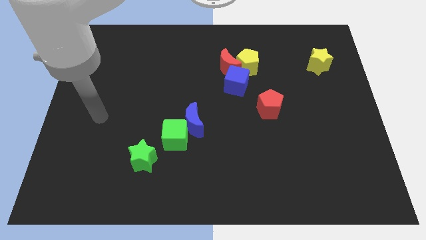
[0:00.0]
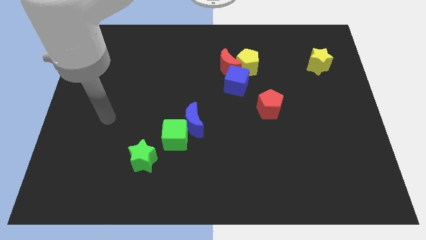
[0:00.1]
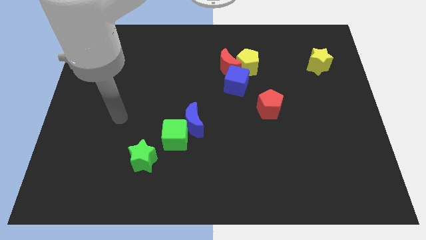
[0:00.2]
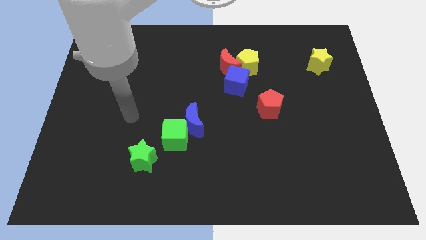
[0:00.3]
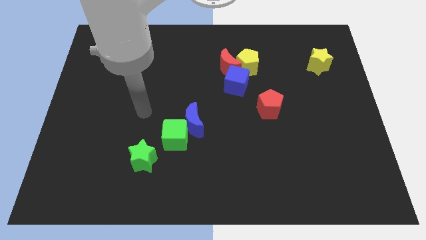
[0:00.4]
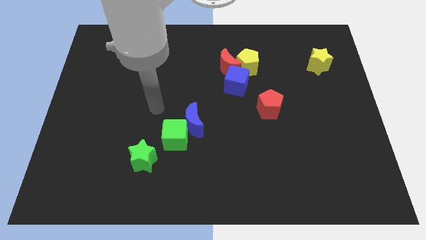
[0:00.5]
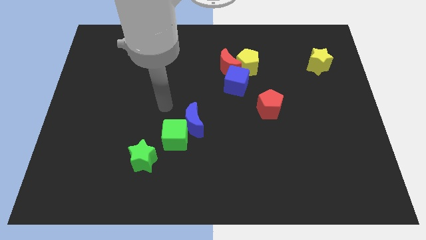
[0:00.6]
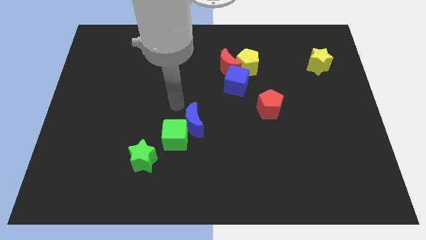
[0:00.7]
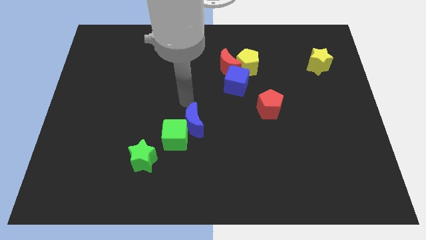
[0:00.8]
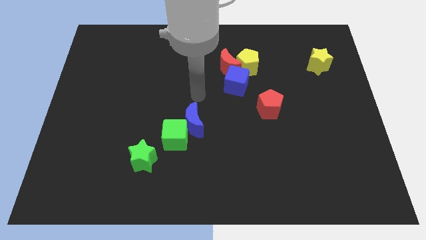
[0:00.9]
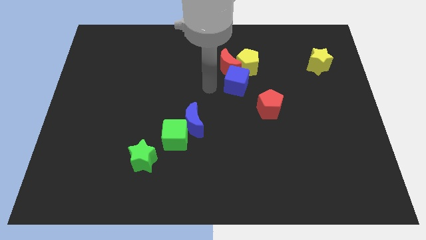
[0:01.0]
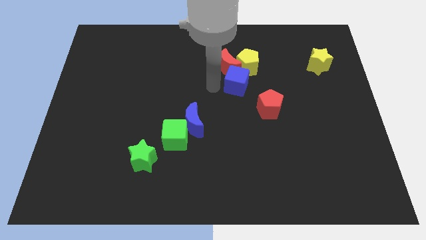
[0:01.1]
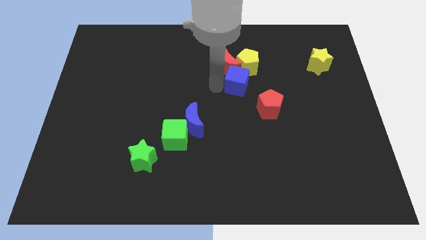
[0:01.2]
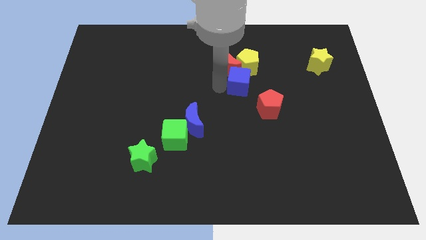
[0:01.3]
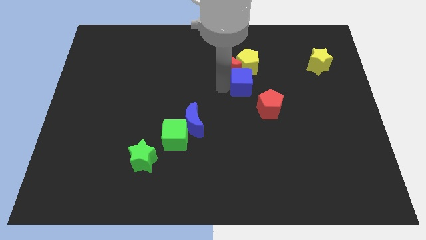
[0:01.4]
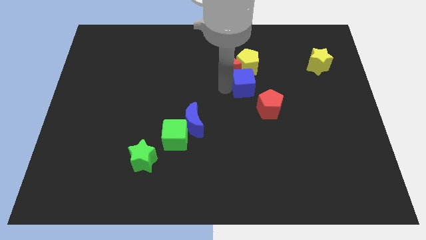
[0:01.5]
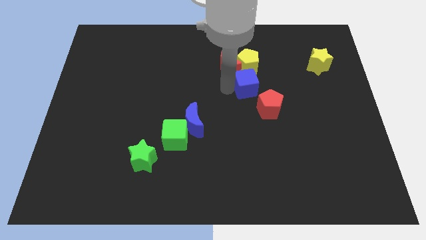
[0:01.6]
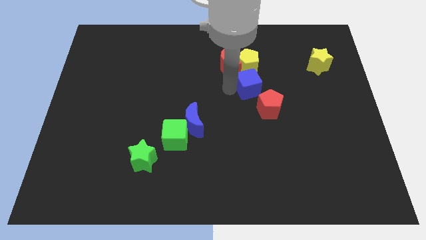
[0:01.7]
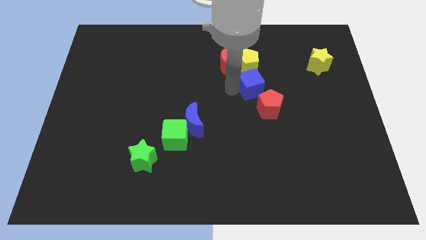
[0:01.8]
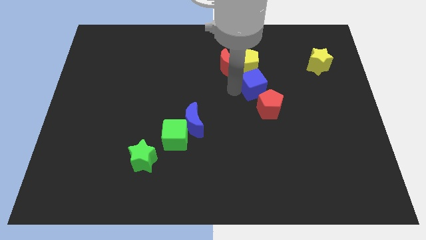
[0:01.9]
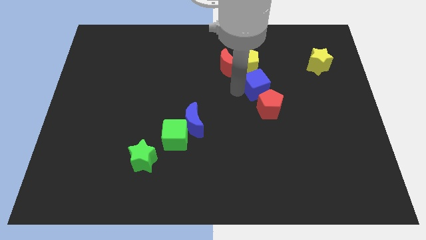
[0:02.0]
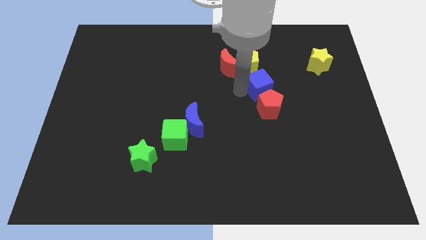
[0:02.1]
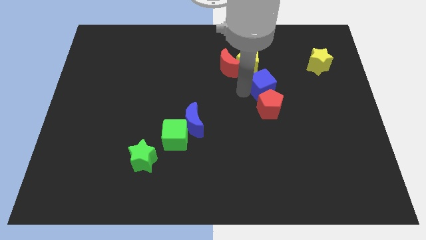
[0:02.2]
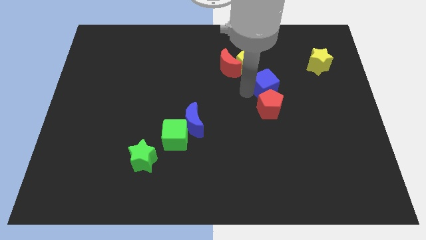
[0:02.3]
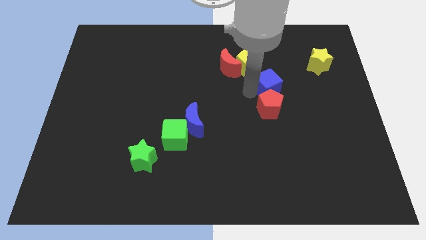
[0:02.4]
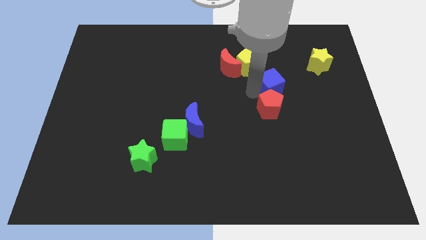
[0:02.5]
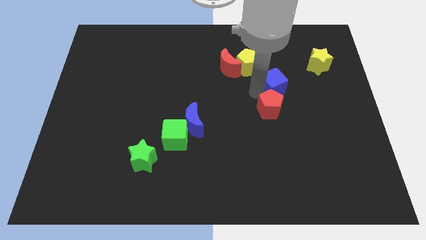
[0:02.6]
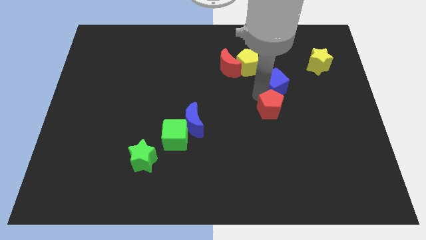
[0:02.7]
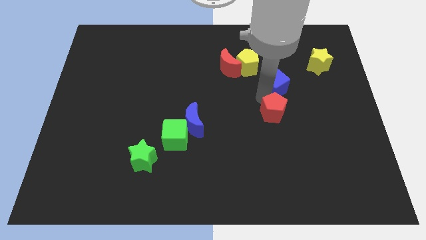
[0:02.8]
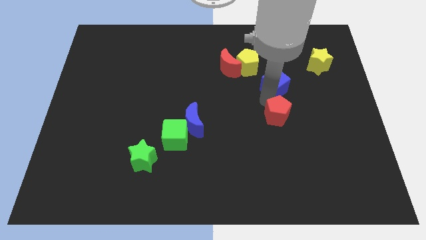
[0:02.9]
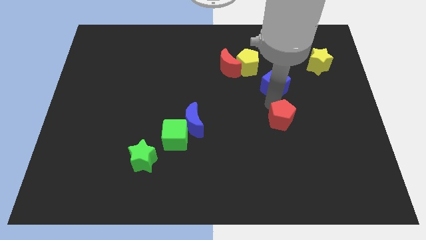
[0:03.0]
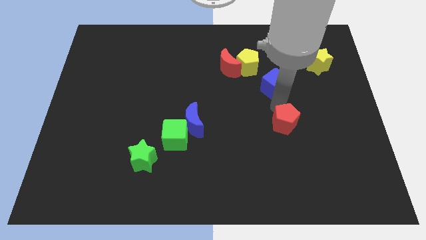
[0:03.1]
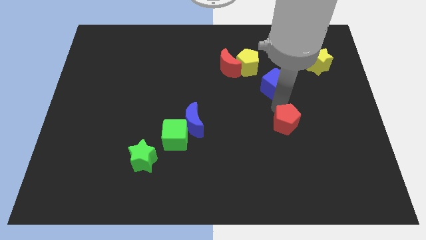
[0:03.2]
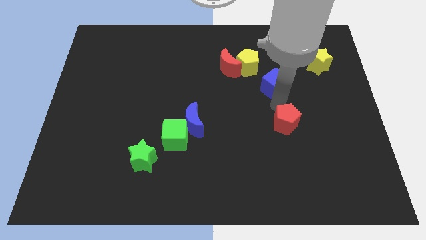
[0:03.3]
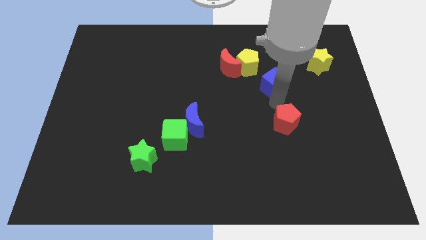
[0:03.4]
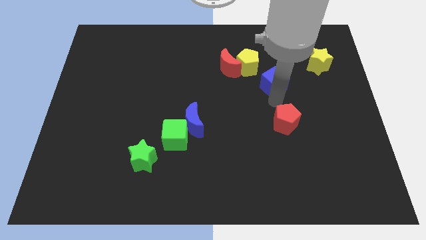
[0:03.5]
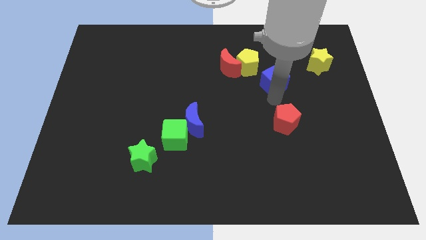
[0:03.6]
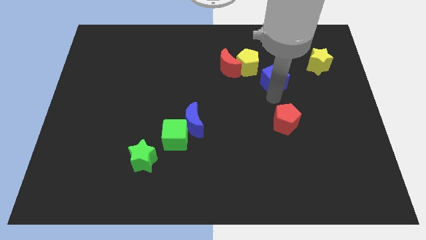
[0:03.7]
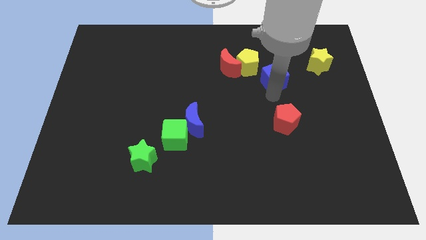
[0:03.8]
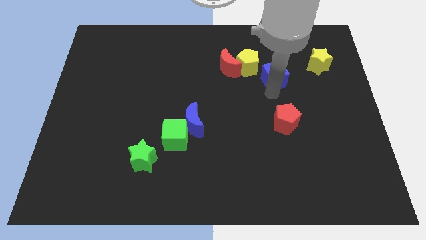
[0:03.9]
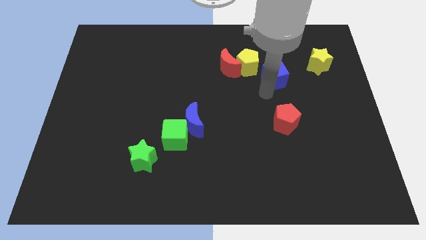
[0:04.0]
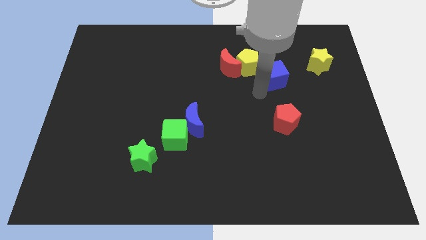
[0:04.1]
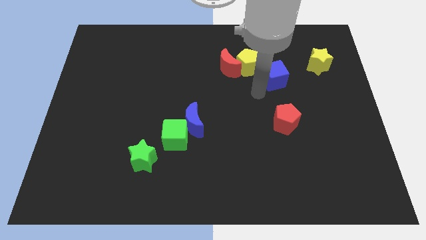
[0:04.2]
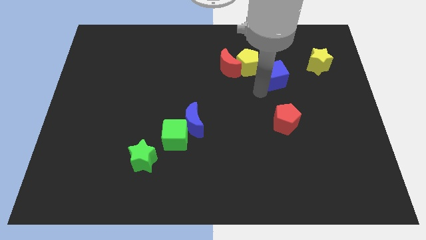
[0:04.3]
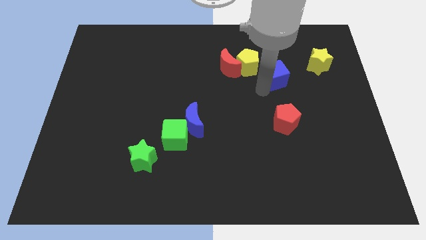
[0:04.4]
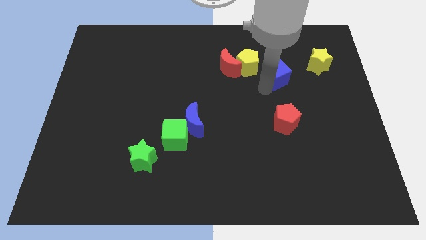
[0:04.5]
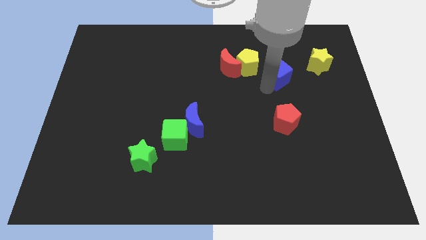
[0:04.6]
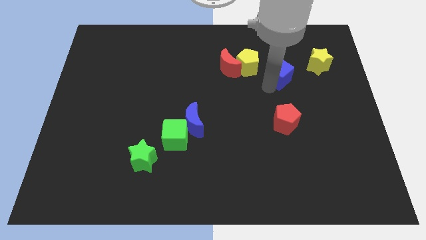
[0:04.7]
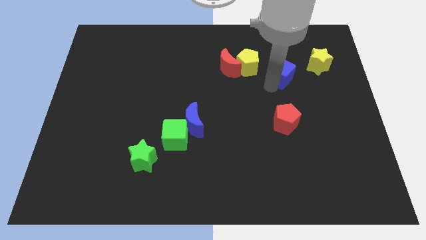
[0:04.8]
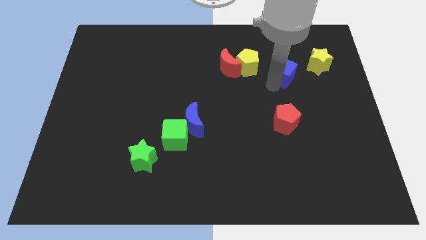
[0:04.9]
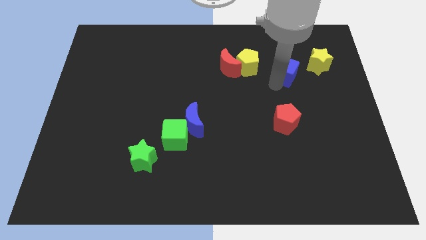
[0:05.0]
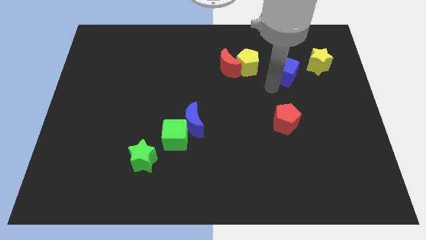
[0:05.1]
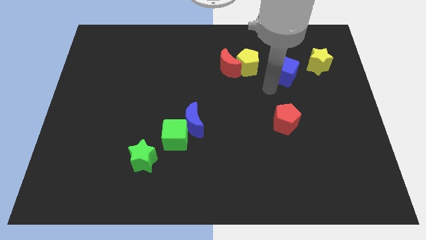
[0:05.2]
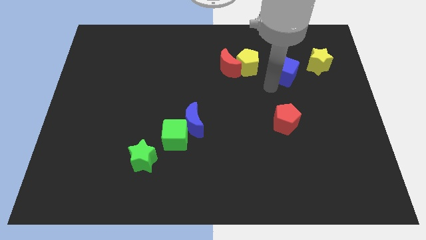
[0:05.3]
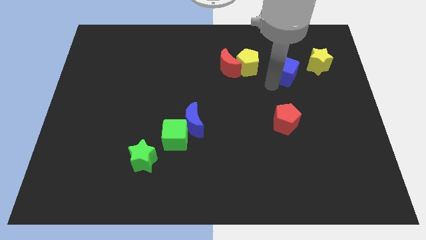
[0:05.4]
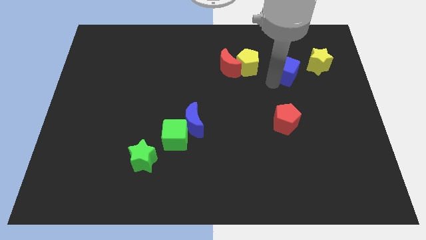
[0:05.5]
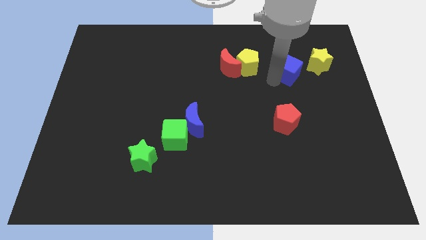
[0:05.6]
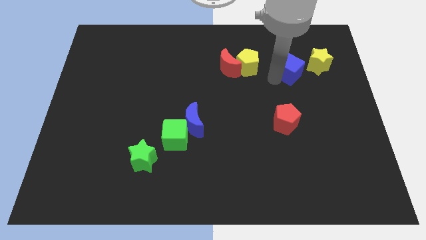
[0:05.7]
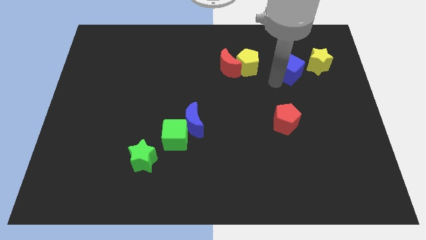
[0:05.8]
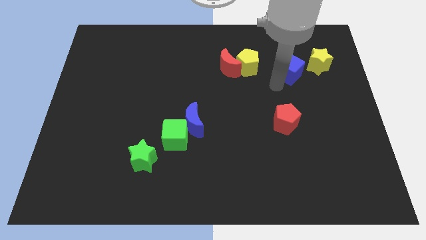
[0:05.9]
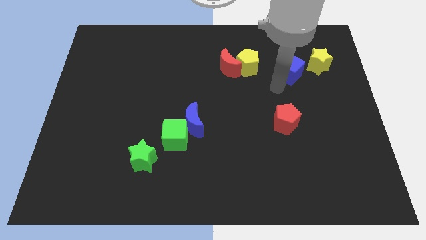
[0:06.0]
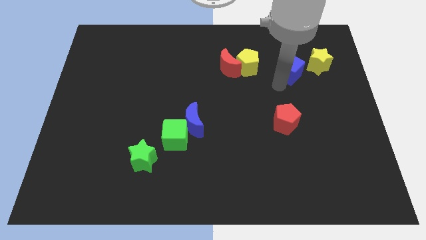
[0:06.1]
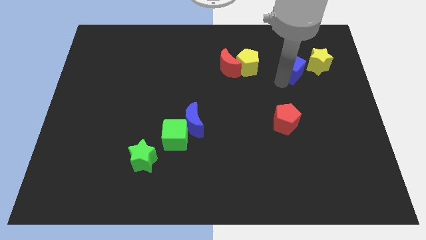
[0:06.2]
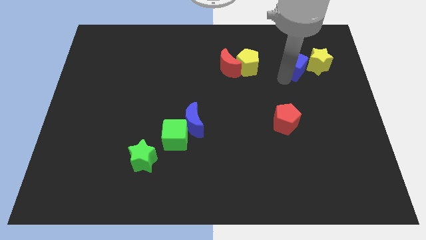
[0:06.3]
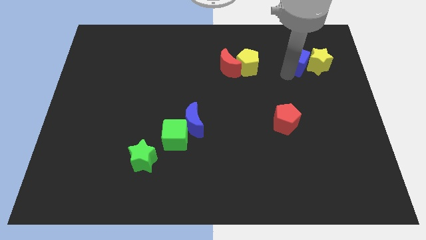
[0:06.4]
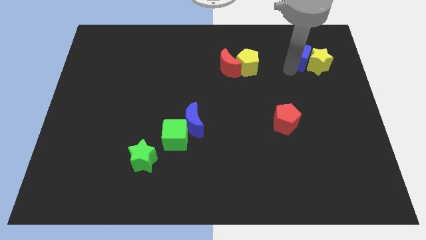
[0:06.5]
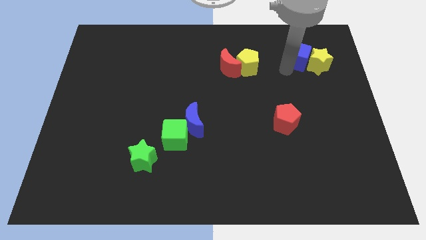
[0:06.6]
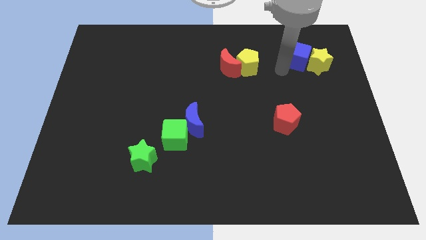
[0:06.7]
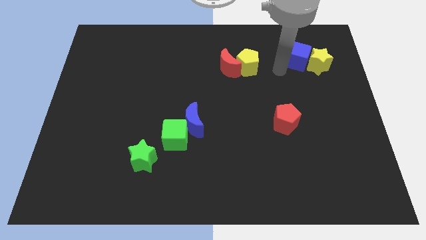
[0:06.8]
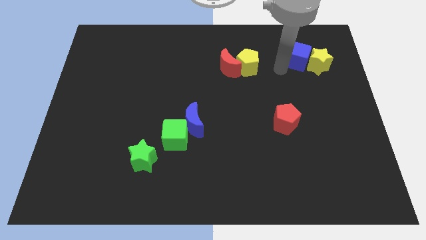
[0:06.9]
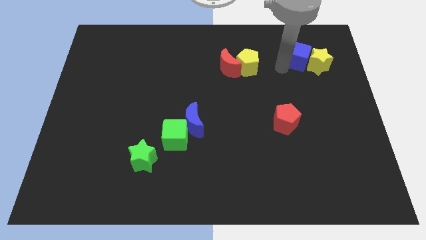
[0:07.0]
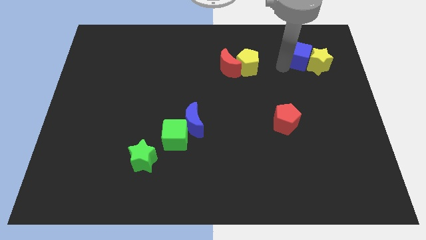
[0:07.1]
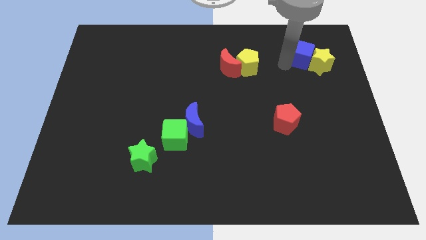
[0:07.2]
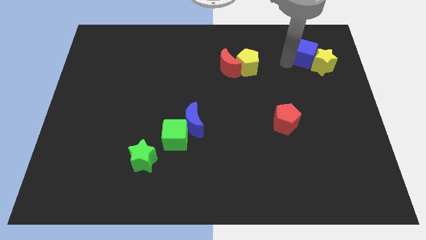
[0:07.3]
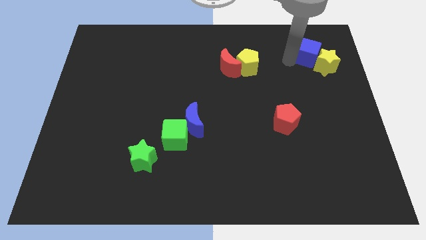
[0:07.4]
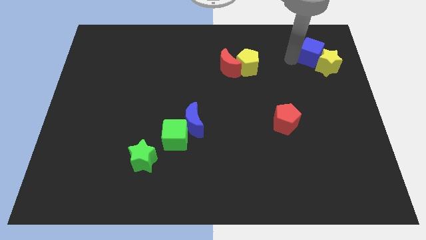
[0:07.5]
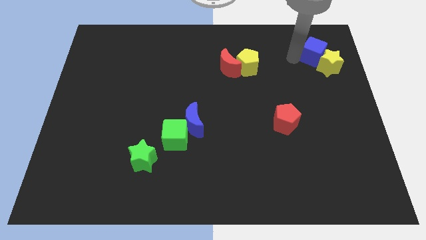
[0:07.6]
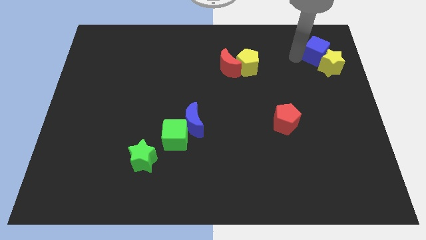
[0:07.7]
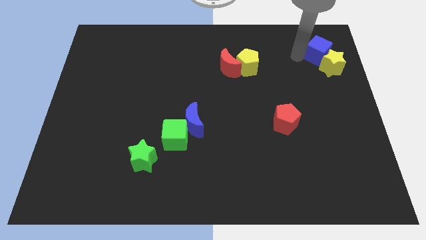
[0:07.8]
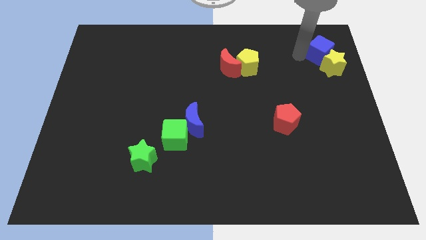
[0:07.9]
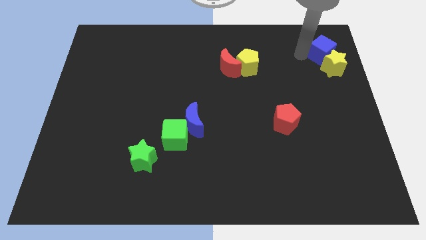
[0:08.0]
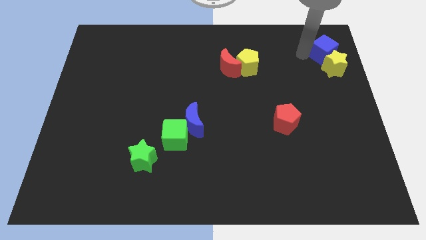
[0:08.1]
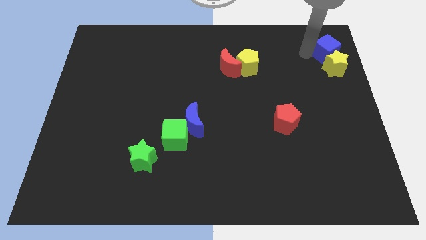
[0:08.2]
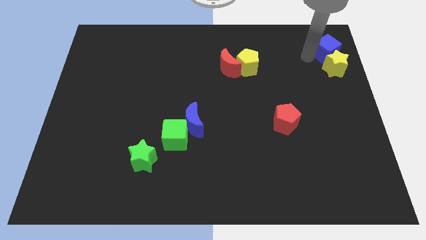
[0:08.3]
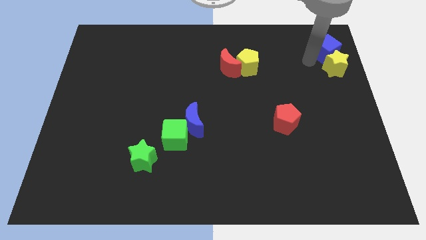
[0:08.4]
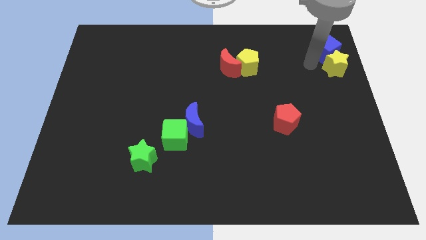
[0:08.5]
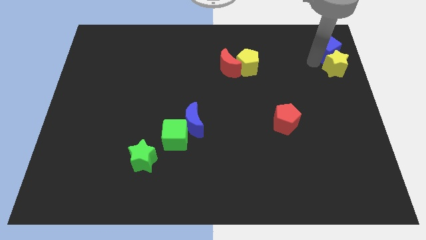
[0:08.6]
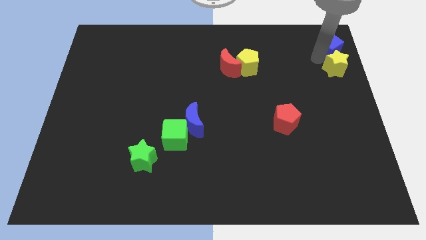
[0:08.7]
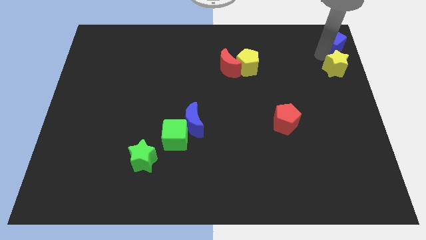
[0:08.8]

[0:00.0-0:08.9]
move the blue cube to the top right
